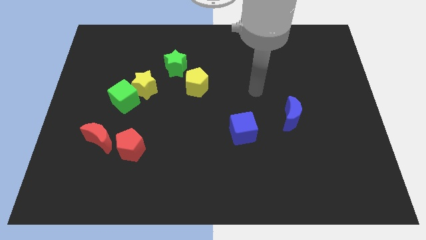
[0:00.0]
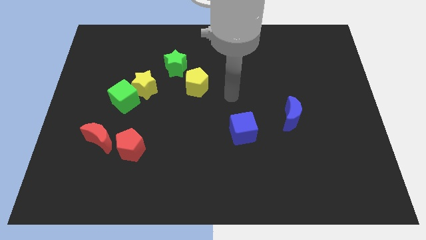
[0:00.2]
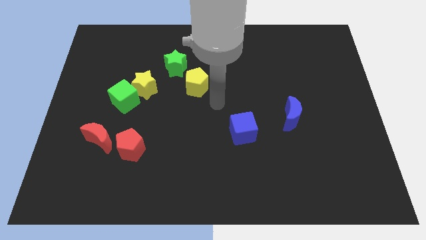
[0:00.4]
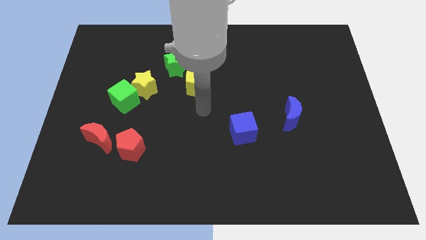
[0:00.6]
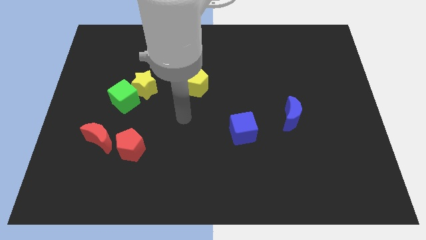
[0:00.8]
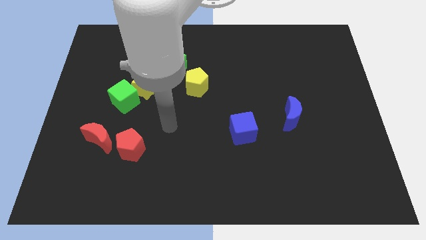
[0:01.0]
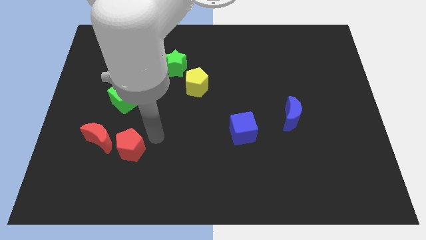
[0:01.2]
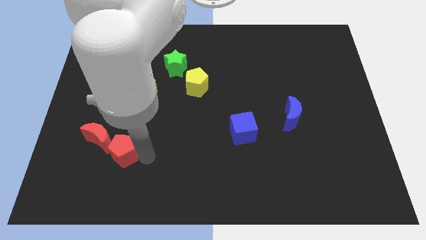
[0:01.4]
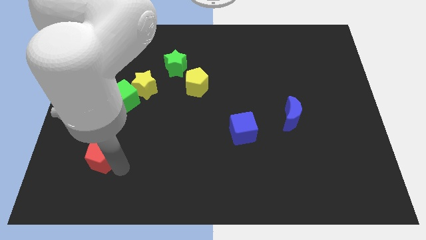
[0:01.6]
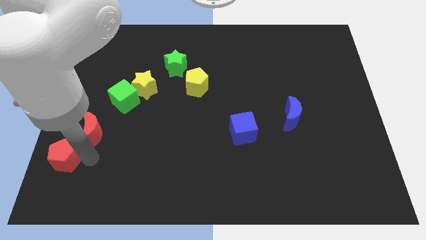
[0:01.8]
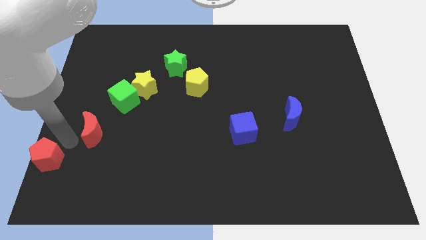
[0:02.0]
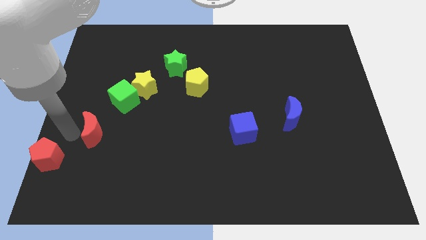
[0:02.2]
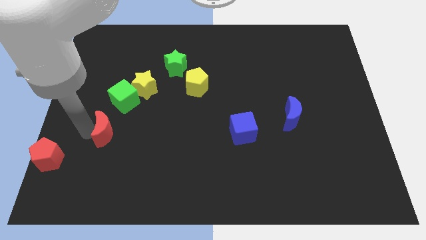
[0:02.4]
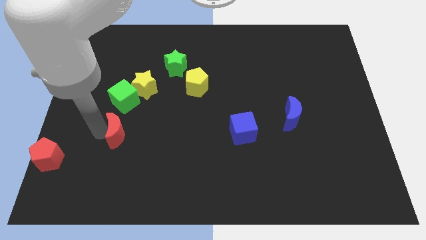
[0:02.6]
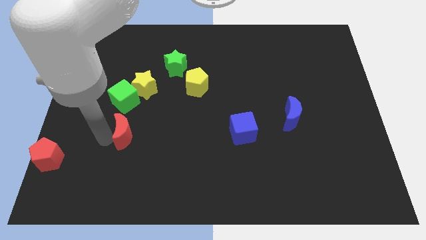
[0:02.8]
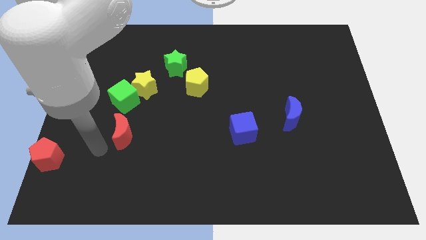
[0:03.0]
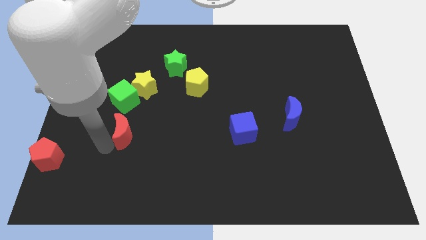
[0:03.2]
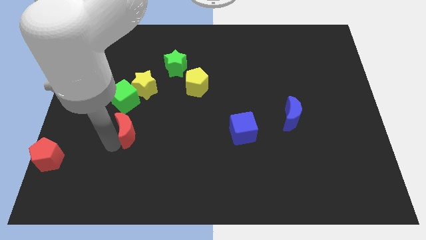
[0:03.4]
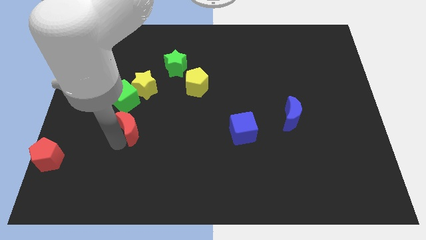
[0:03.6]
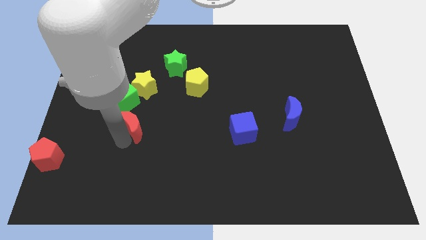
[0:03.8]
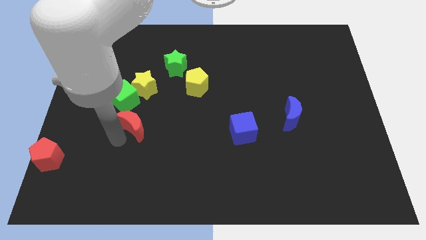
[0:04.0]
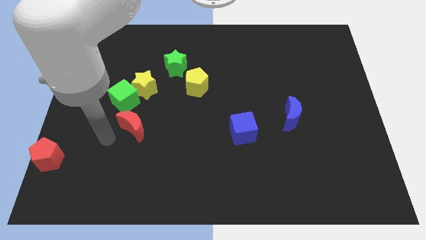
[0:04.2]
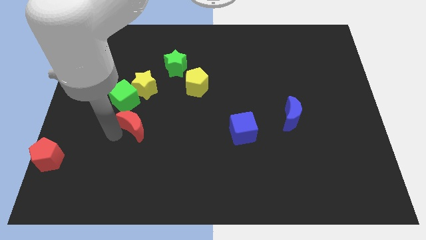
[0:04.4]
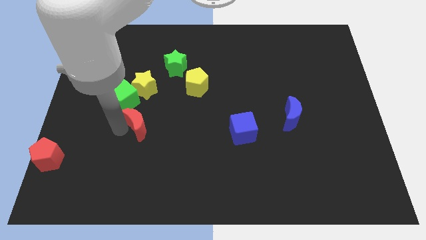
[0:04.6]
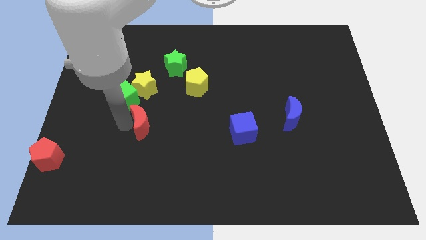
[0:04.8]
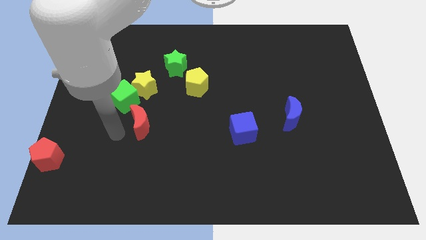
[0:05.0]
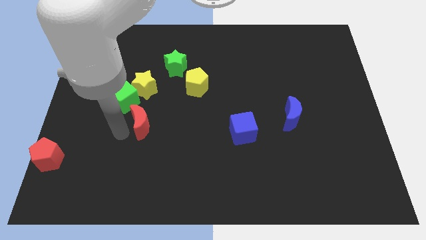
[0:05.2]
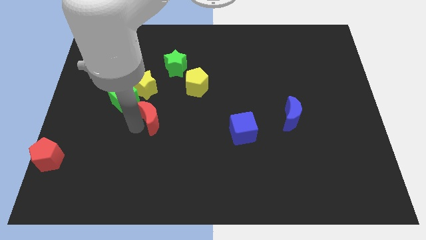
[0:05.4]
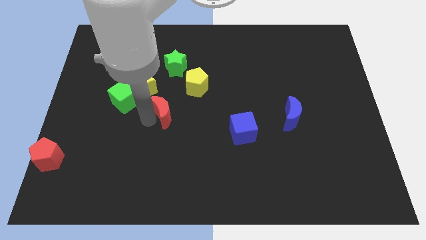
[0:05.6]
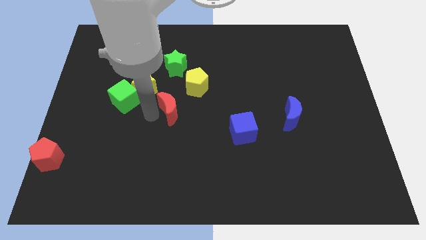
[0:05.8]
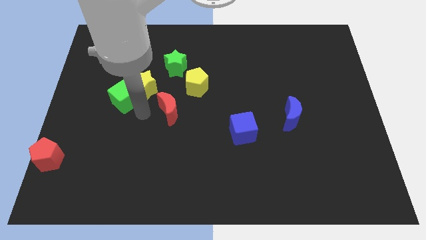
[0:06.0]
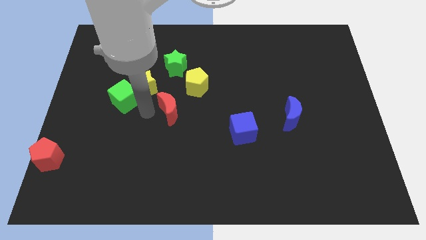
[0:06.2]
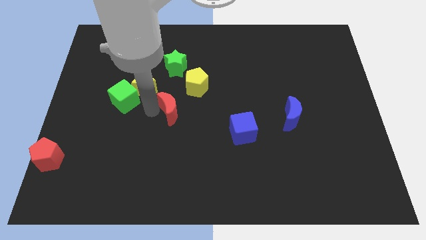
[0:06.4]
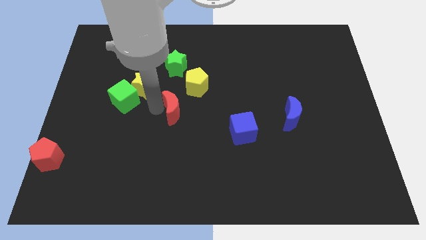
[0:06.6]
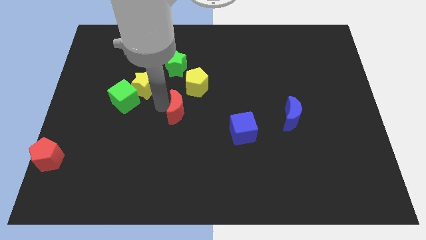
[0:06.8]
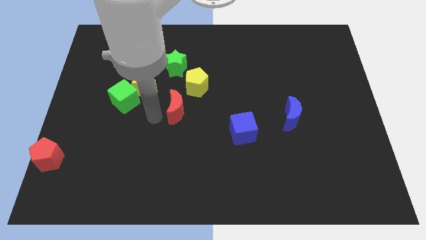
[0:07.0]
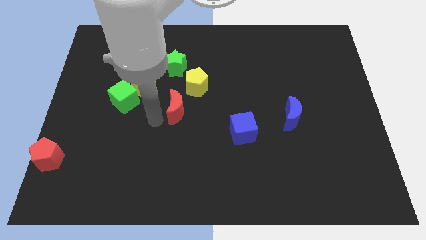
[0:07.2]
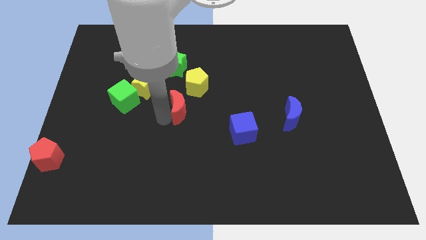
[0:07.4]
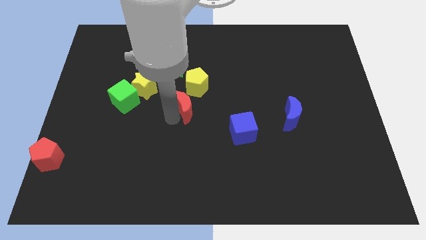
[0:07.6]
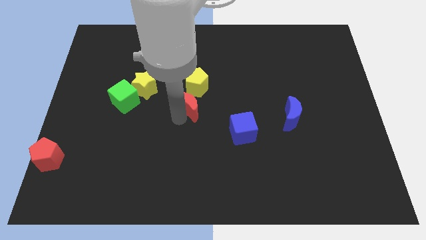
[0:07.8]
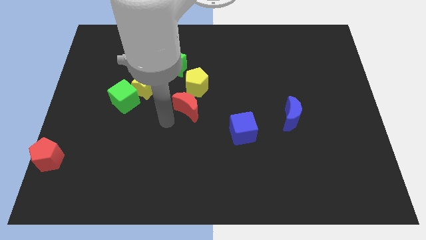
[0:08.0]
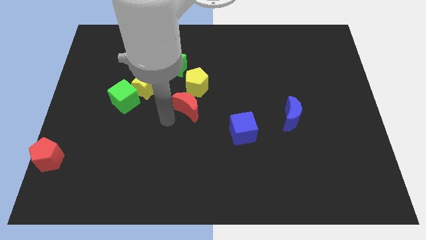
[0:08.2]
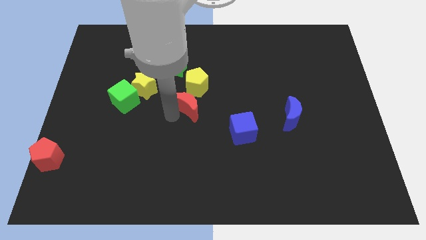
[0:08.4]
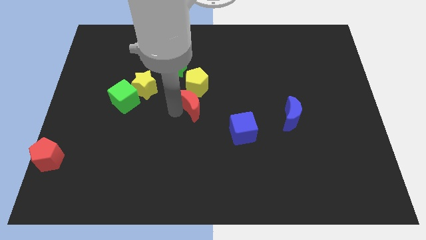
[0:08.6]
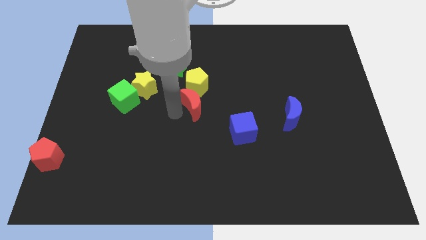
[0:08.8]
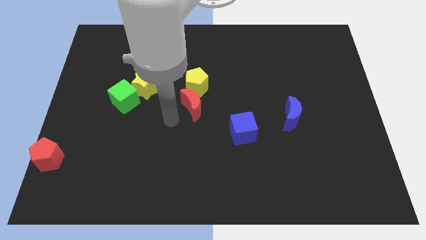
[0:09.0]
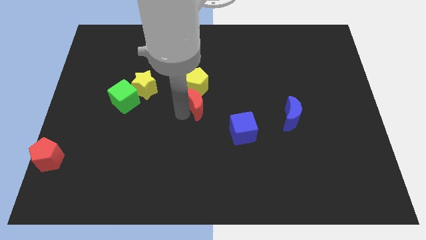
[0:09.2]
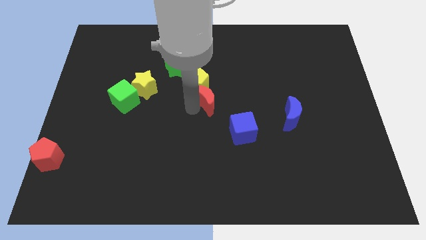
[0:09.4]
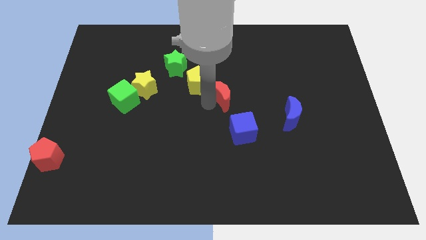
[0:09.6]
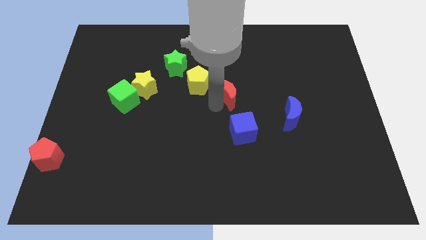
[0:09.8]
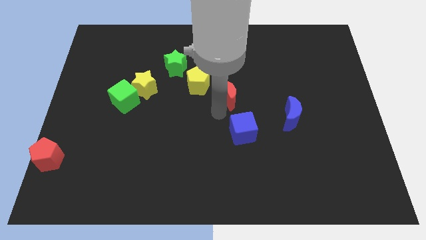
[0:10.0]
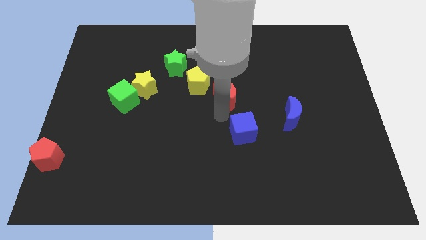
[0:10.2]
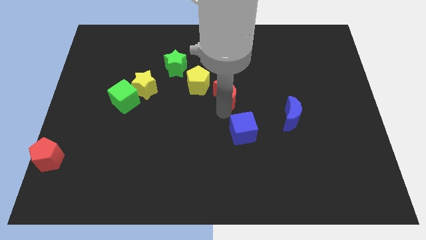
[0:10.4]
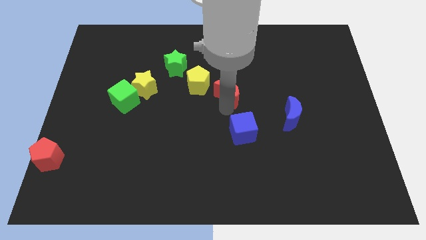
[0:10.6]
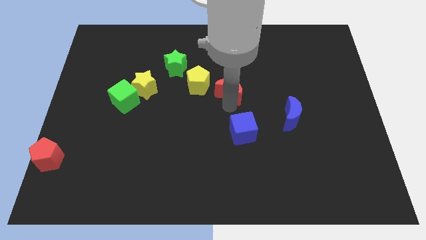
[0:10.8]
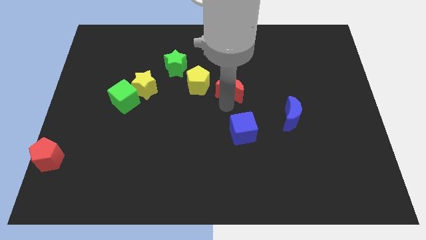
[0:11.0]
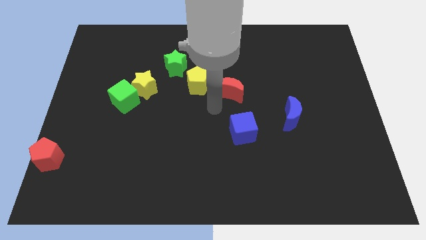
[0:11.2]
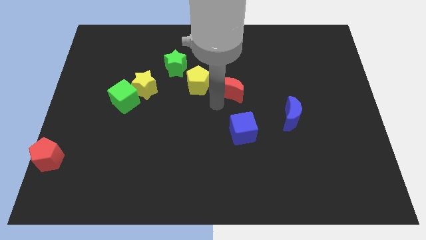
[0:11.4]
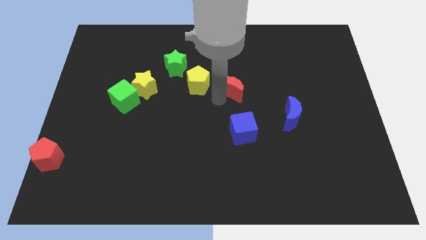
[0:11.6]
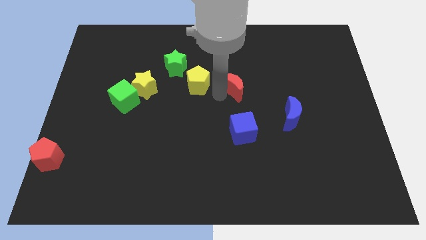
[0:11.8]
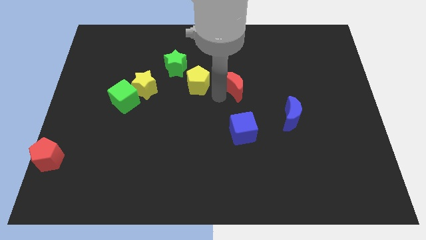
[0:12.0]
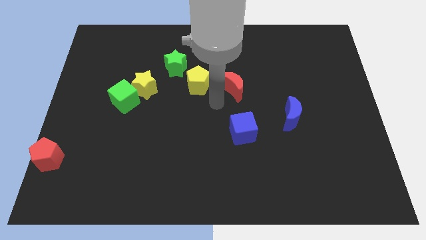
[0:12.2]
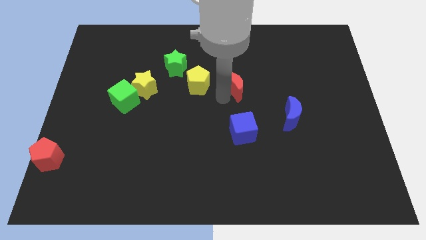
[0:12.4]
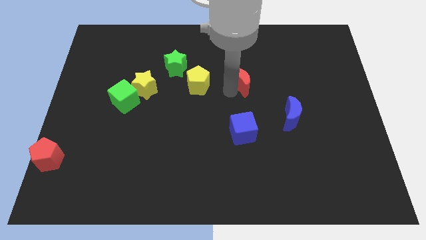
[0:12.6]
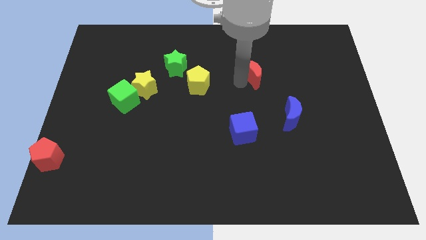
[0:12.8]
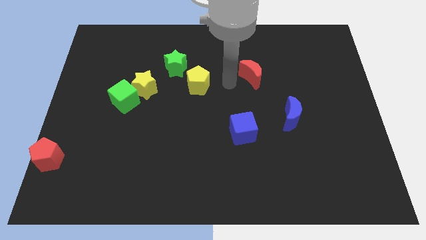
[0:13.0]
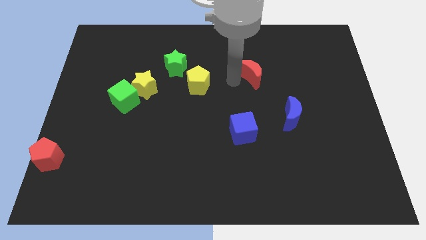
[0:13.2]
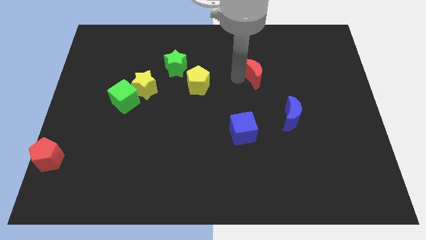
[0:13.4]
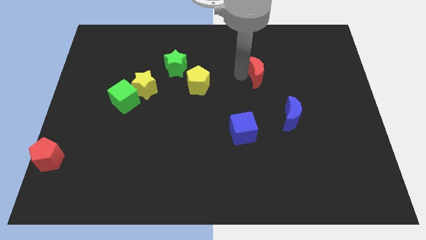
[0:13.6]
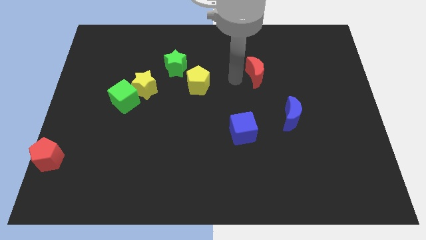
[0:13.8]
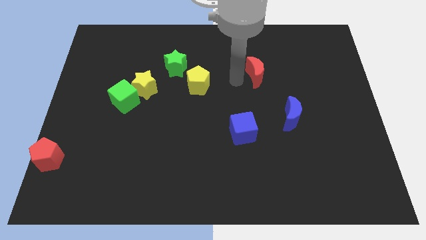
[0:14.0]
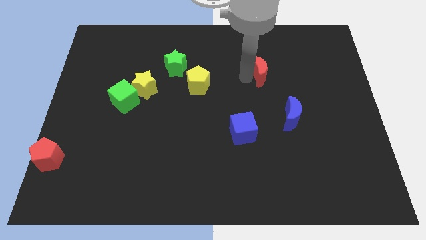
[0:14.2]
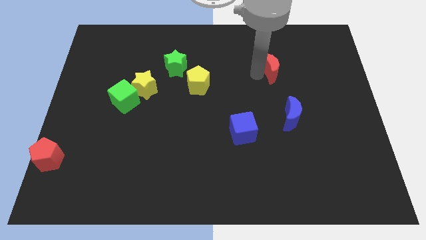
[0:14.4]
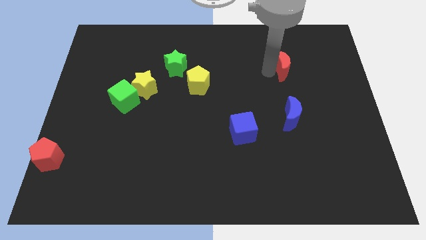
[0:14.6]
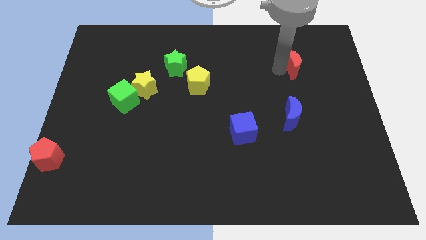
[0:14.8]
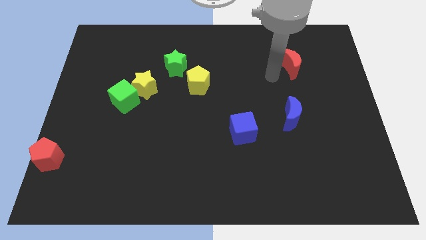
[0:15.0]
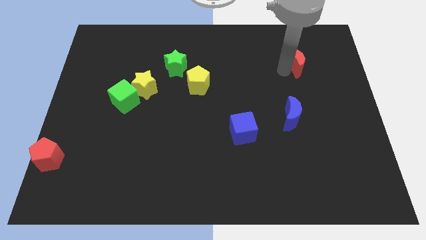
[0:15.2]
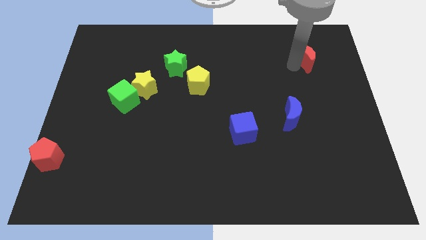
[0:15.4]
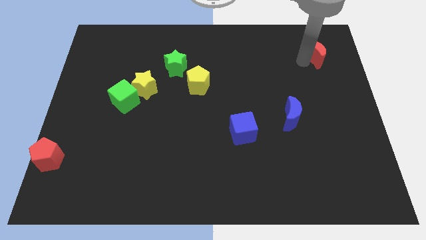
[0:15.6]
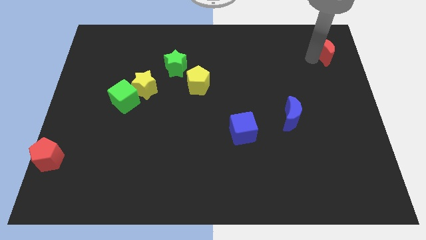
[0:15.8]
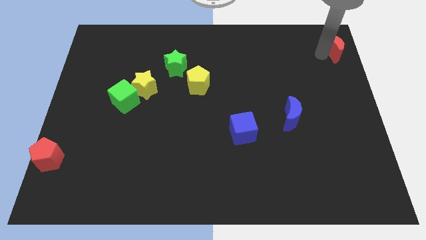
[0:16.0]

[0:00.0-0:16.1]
put the red moon to the top right corner
